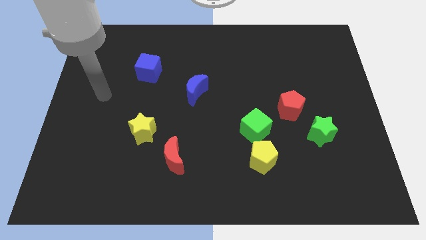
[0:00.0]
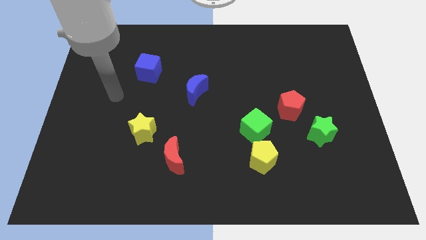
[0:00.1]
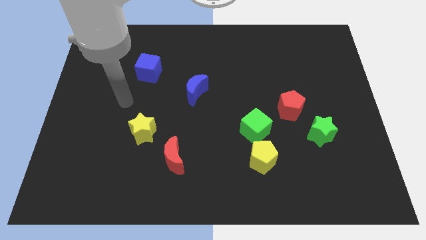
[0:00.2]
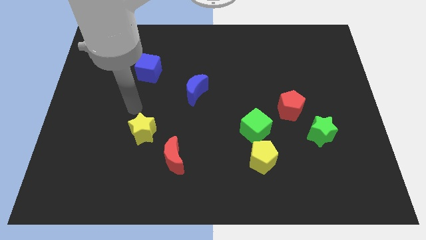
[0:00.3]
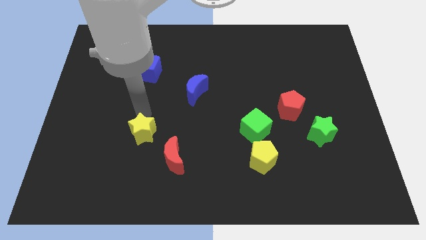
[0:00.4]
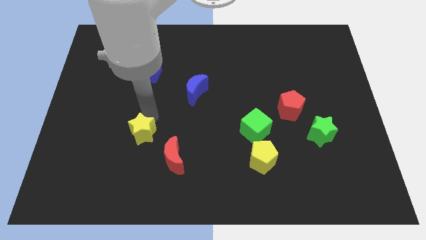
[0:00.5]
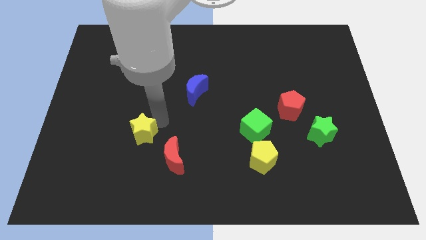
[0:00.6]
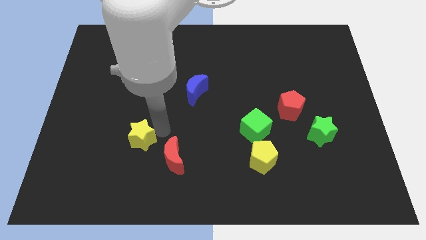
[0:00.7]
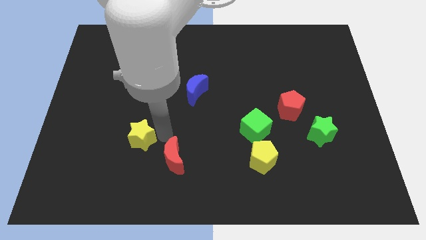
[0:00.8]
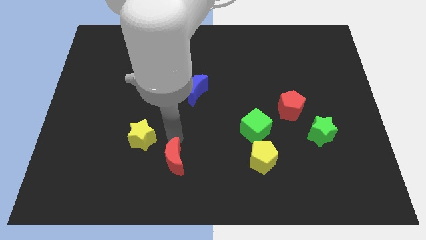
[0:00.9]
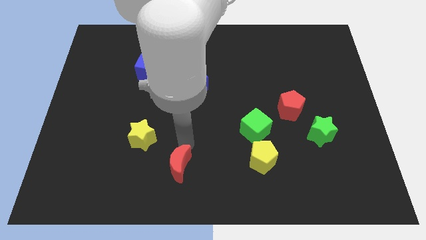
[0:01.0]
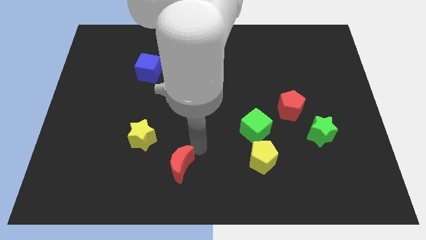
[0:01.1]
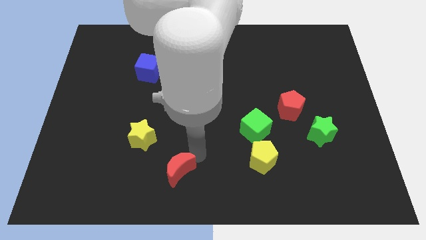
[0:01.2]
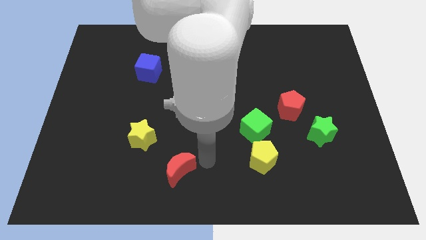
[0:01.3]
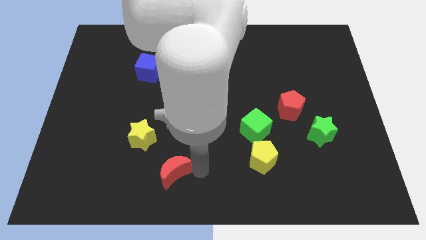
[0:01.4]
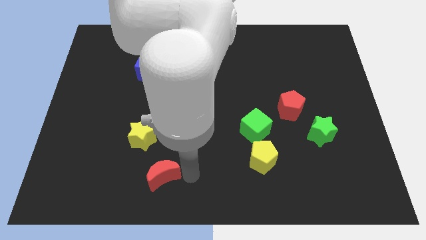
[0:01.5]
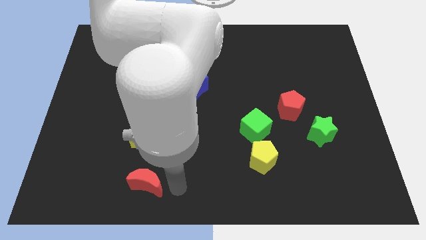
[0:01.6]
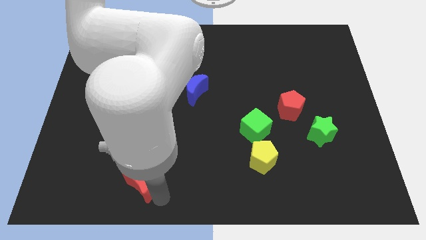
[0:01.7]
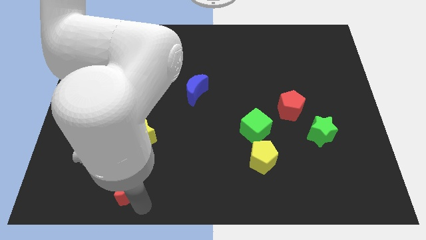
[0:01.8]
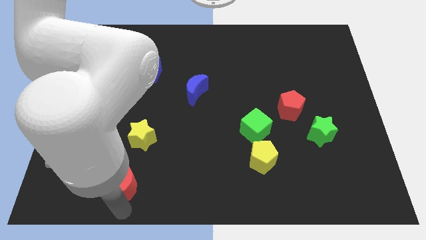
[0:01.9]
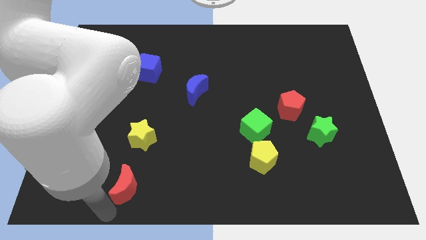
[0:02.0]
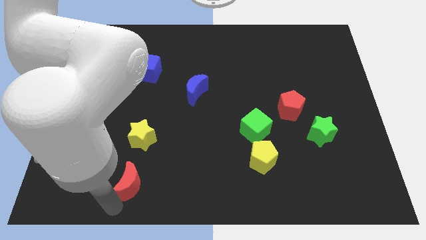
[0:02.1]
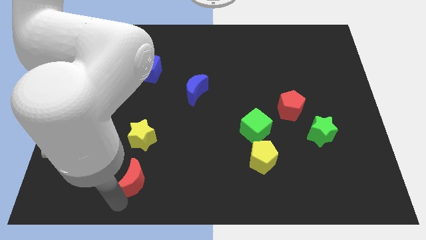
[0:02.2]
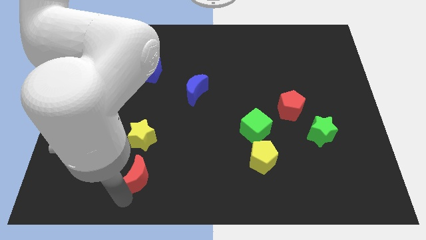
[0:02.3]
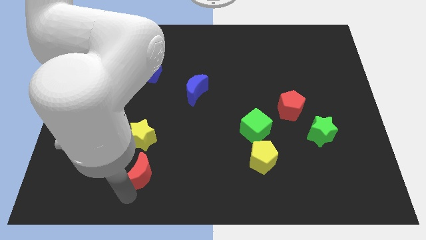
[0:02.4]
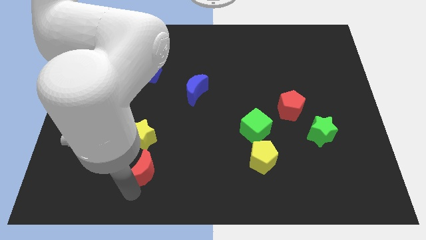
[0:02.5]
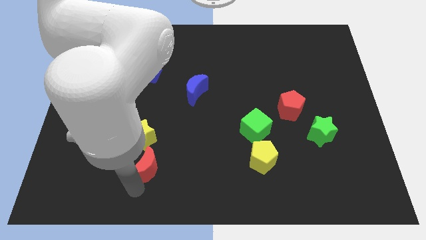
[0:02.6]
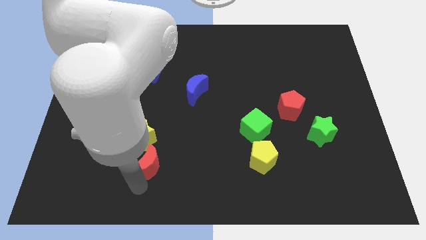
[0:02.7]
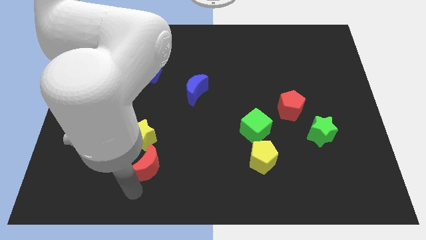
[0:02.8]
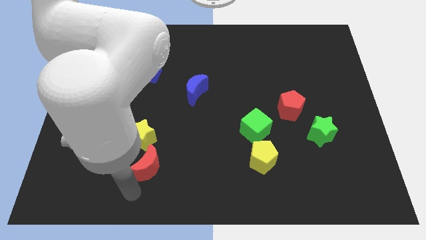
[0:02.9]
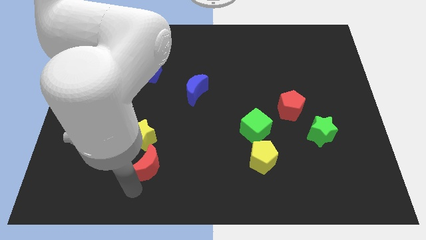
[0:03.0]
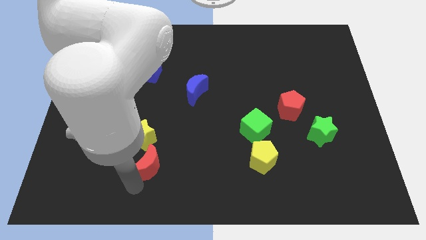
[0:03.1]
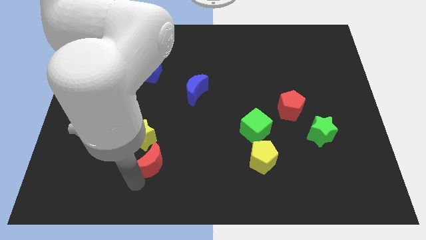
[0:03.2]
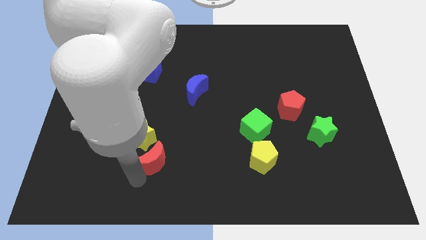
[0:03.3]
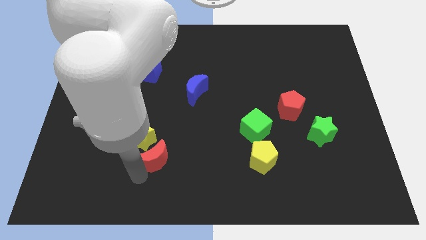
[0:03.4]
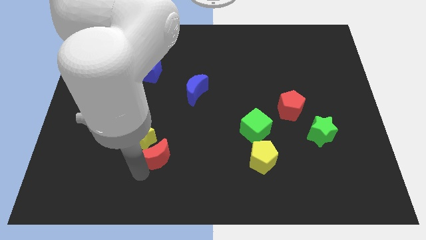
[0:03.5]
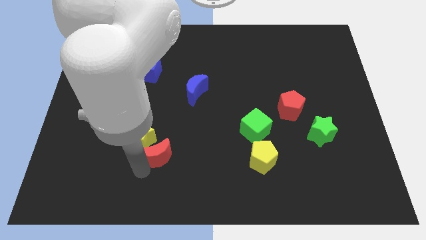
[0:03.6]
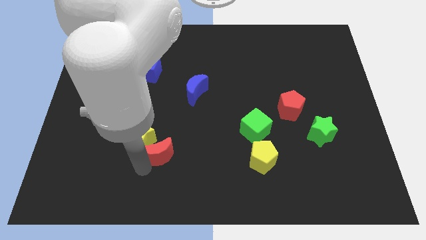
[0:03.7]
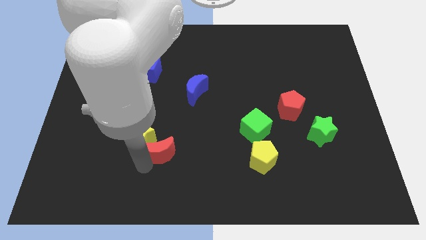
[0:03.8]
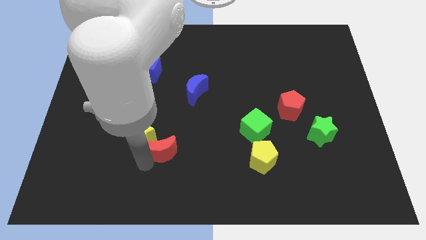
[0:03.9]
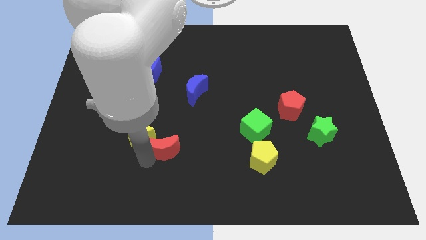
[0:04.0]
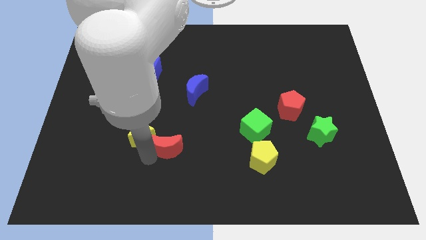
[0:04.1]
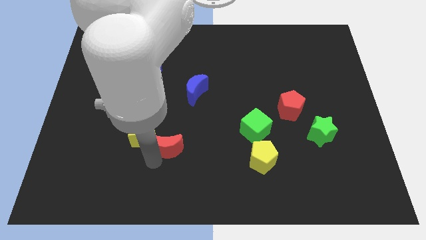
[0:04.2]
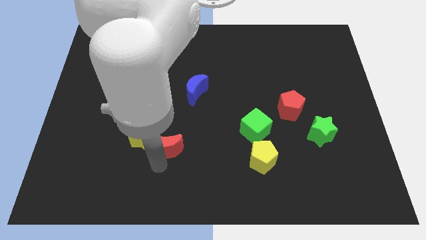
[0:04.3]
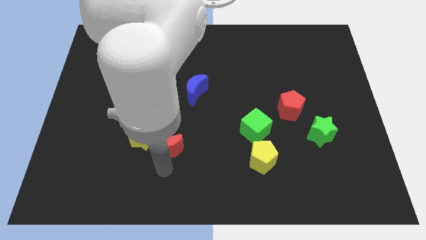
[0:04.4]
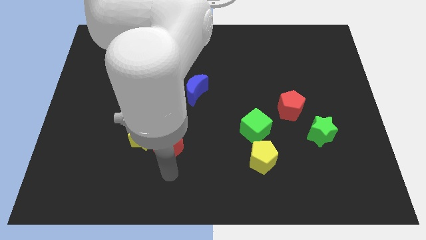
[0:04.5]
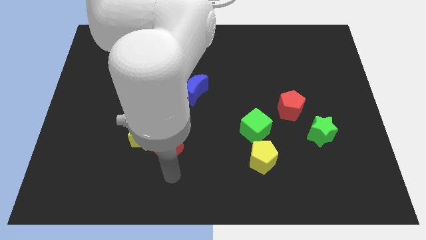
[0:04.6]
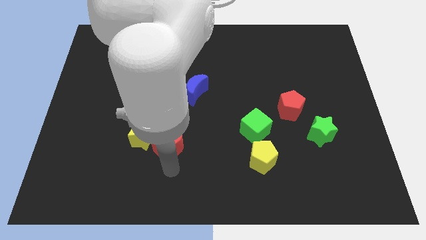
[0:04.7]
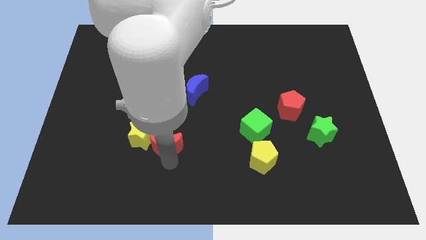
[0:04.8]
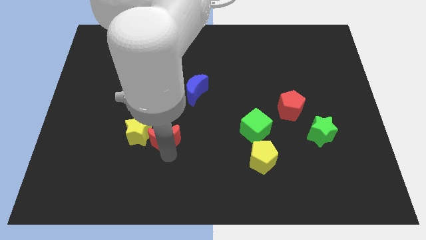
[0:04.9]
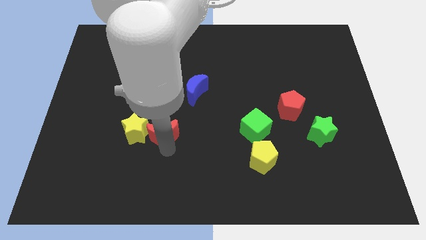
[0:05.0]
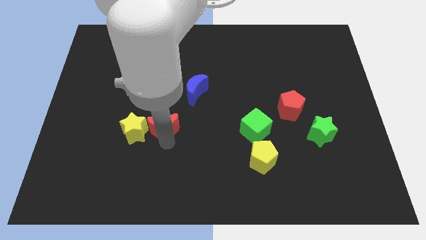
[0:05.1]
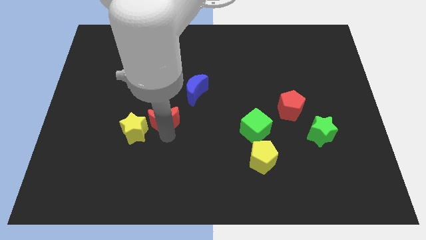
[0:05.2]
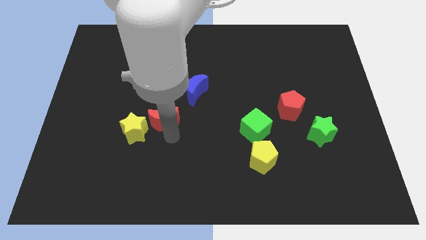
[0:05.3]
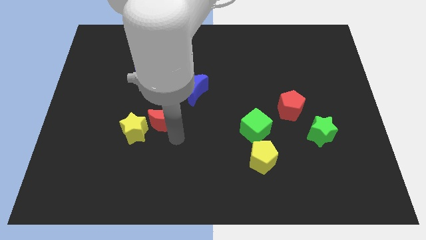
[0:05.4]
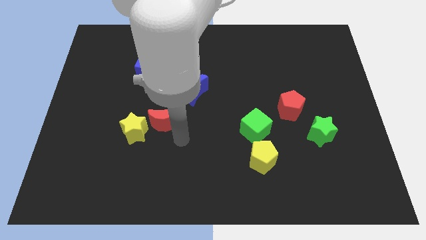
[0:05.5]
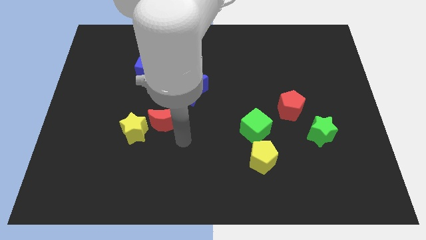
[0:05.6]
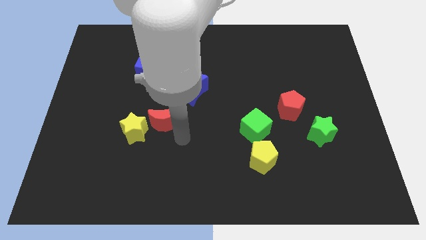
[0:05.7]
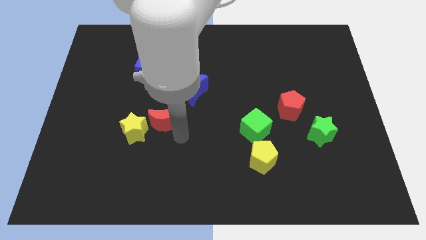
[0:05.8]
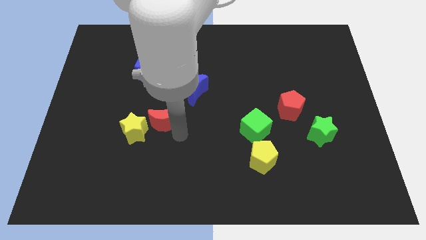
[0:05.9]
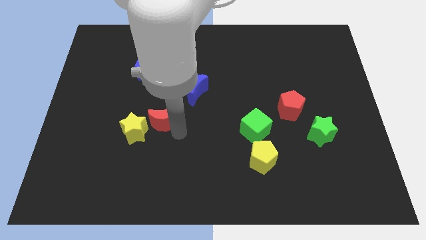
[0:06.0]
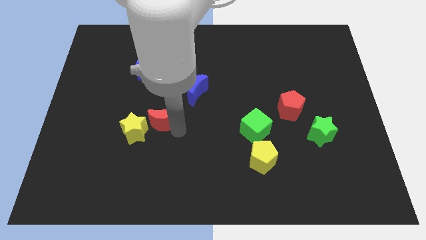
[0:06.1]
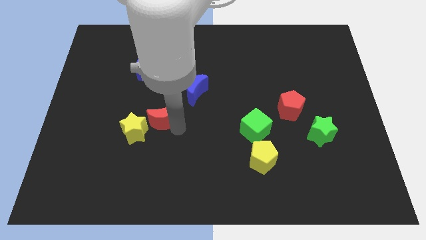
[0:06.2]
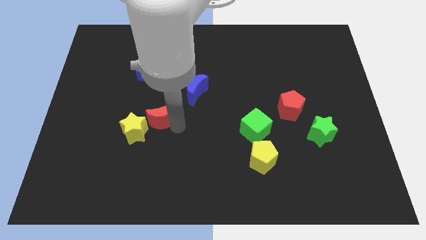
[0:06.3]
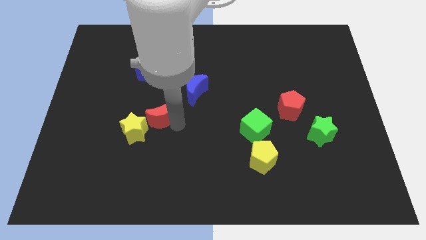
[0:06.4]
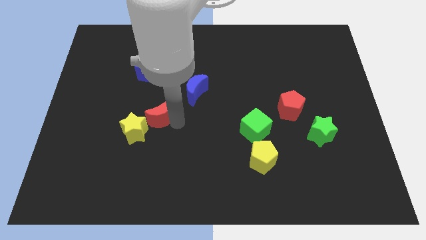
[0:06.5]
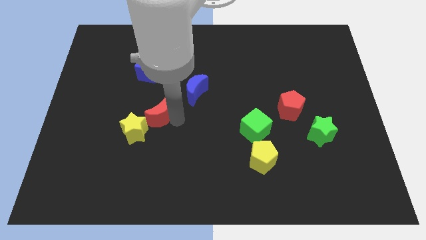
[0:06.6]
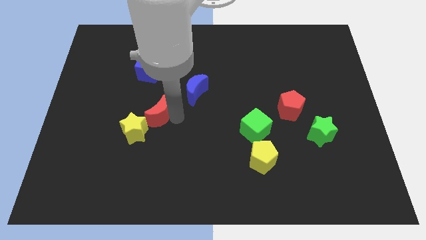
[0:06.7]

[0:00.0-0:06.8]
move the red moon to the bottom side of the blue cube
